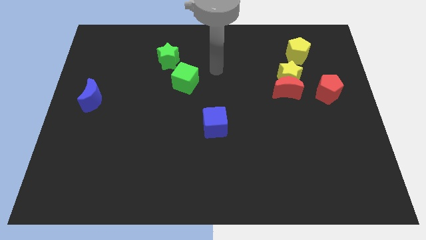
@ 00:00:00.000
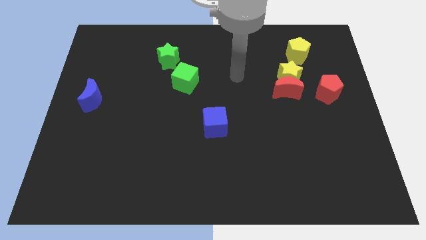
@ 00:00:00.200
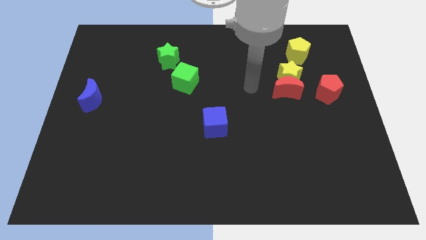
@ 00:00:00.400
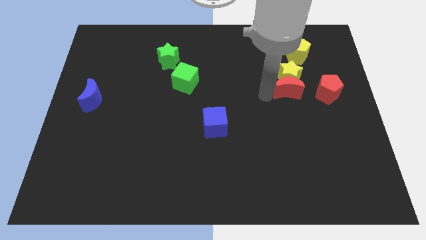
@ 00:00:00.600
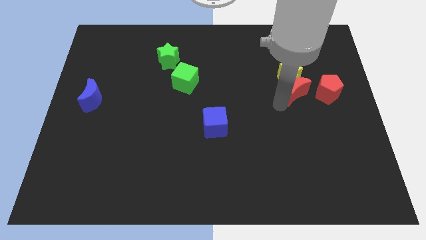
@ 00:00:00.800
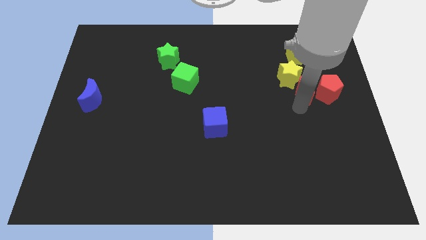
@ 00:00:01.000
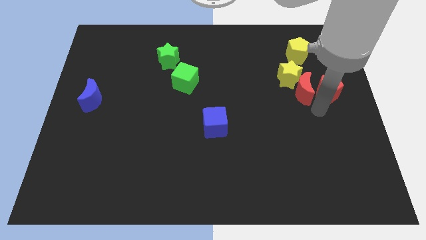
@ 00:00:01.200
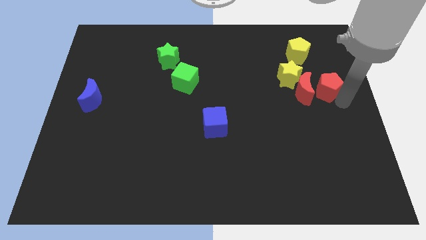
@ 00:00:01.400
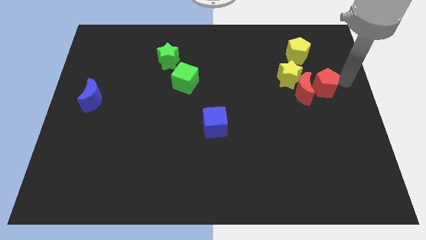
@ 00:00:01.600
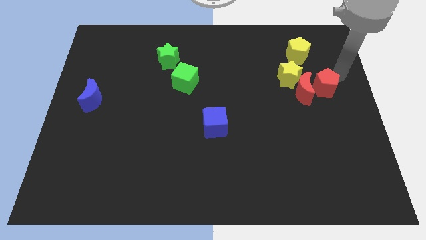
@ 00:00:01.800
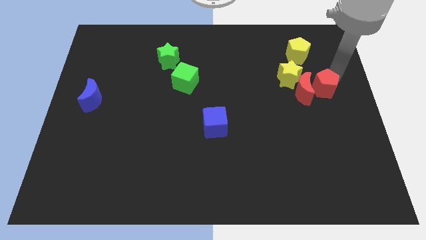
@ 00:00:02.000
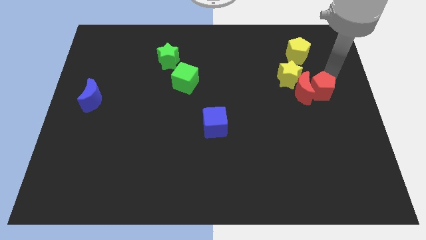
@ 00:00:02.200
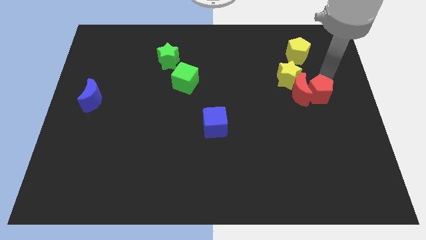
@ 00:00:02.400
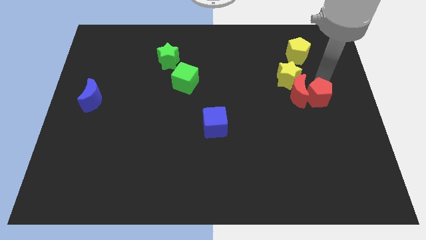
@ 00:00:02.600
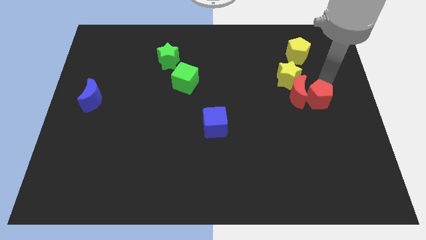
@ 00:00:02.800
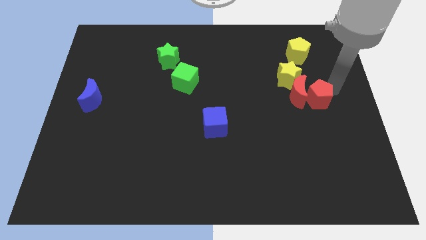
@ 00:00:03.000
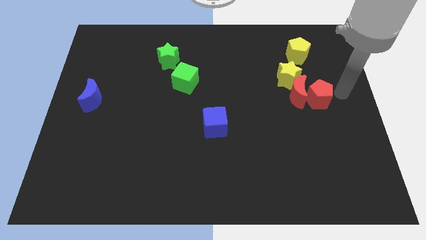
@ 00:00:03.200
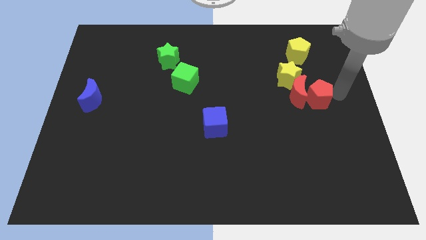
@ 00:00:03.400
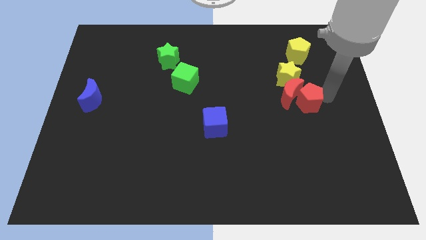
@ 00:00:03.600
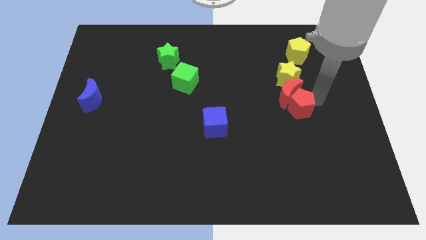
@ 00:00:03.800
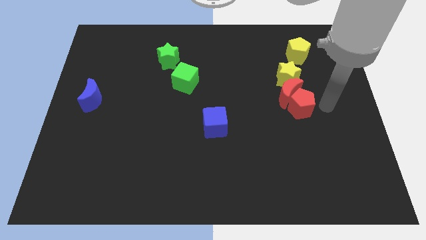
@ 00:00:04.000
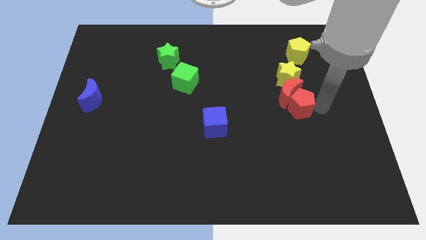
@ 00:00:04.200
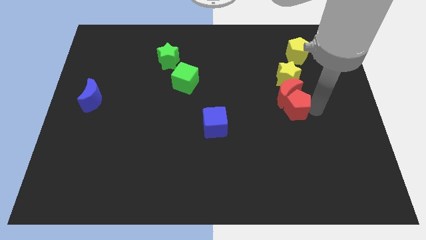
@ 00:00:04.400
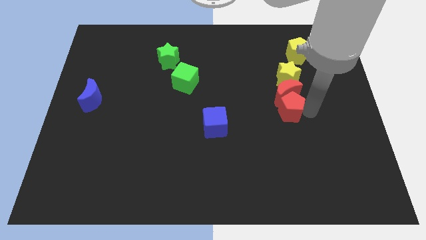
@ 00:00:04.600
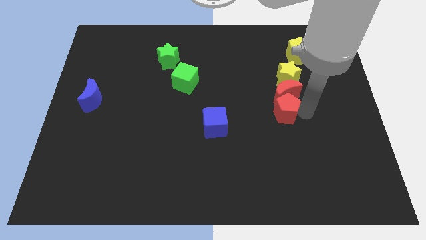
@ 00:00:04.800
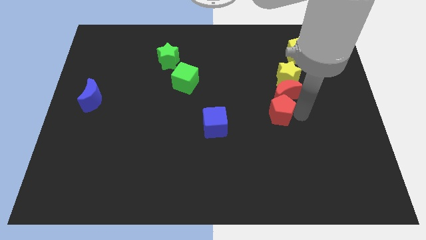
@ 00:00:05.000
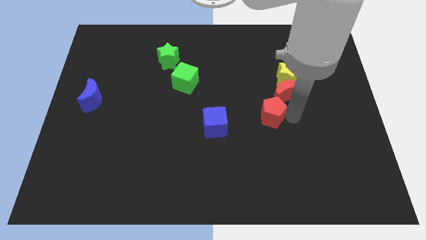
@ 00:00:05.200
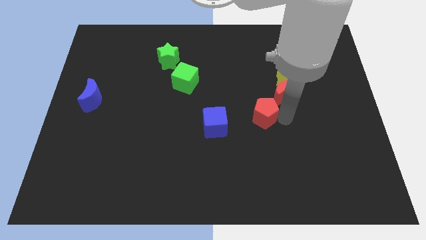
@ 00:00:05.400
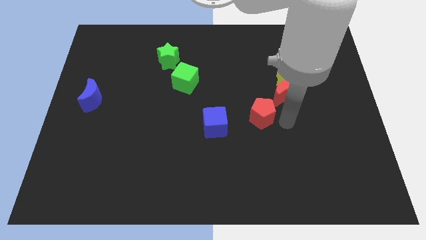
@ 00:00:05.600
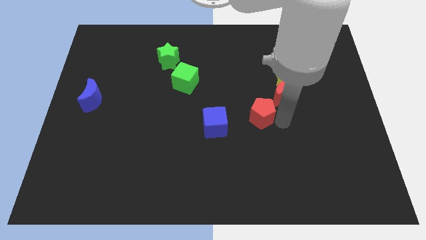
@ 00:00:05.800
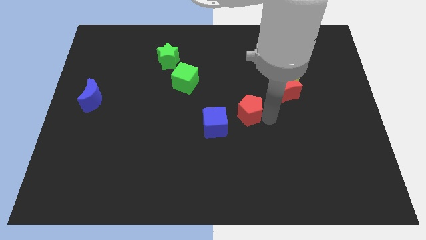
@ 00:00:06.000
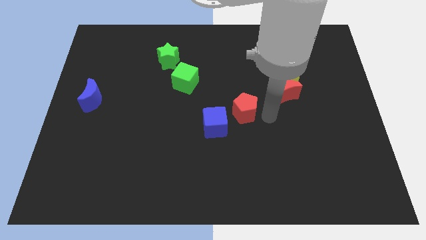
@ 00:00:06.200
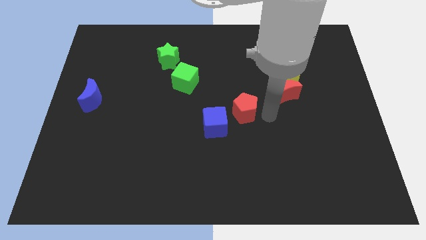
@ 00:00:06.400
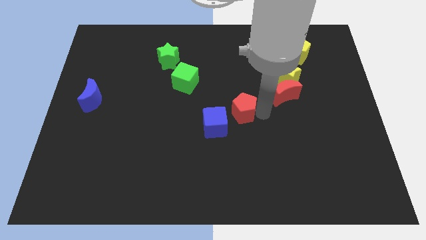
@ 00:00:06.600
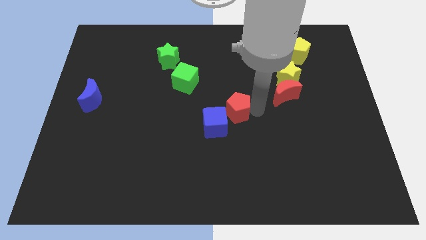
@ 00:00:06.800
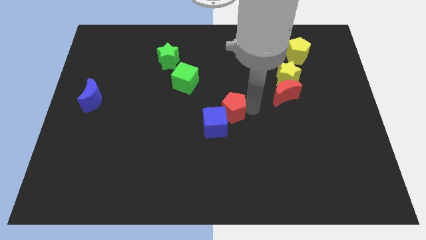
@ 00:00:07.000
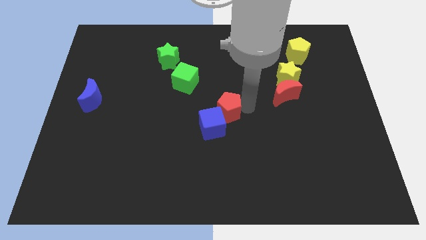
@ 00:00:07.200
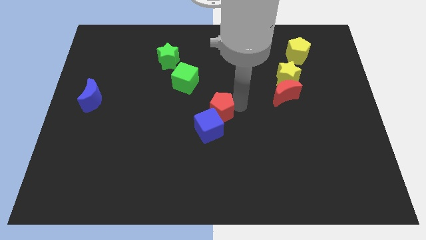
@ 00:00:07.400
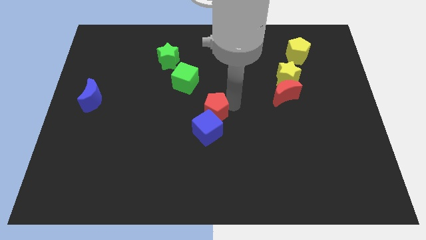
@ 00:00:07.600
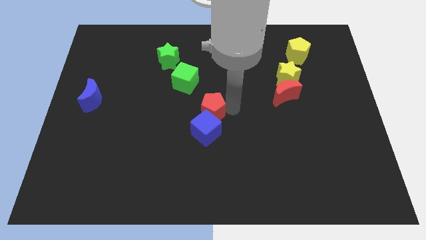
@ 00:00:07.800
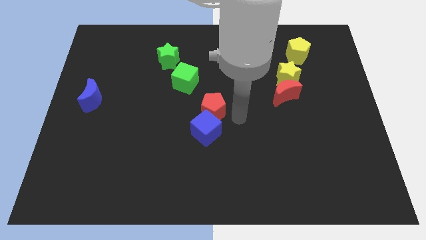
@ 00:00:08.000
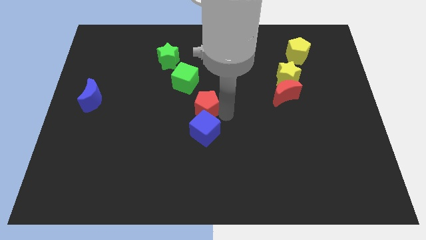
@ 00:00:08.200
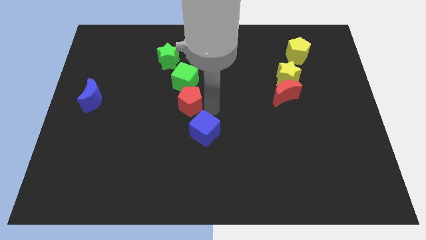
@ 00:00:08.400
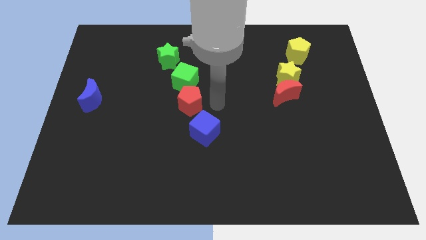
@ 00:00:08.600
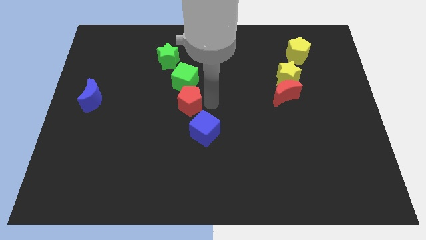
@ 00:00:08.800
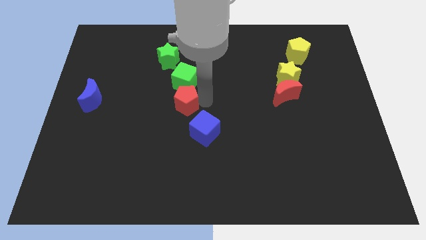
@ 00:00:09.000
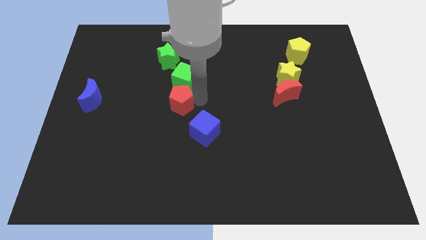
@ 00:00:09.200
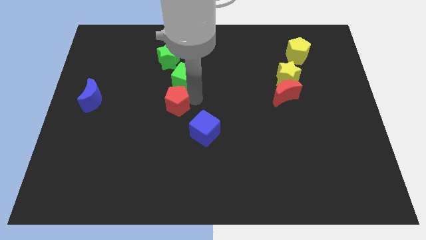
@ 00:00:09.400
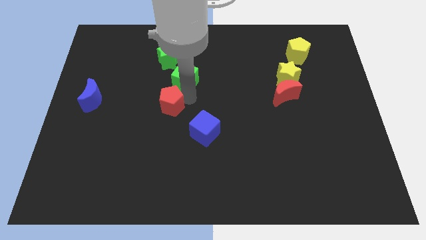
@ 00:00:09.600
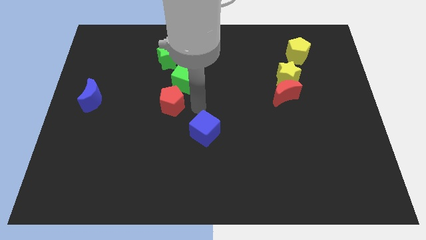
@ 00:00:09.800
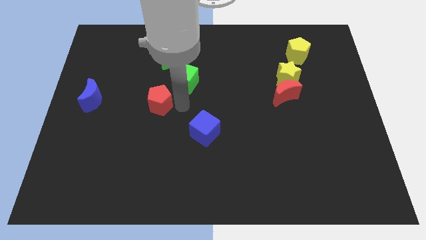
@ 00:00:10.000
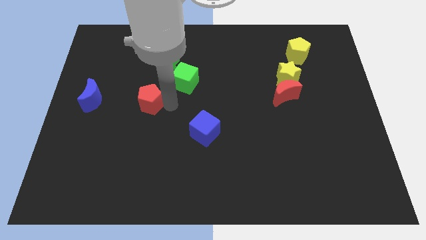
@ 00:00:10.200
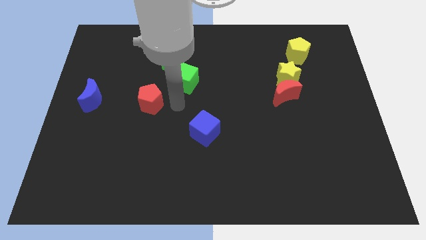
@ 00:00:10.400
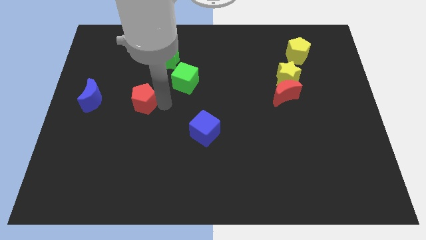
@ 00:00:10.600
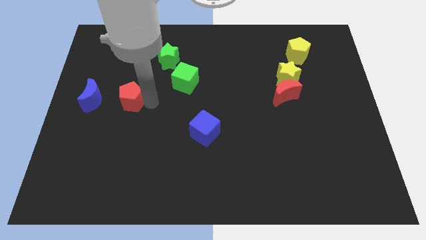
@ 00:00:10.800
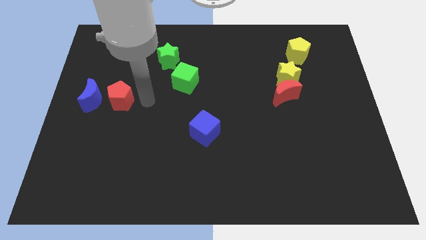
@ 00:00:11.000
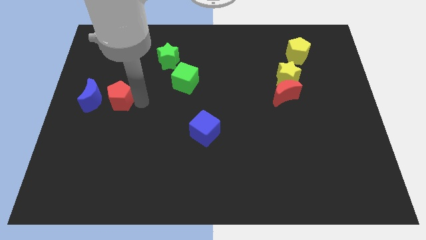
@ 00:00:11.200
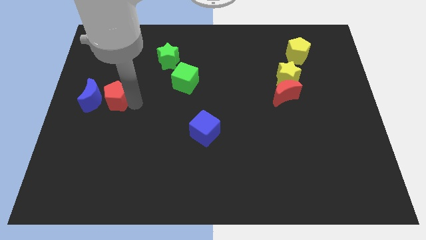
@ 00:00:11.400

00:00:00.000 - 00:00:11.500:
move the red pentagon close to the blue moon
